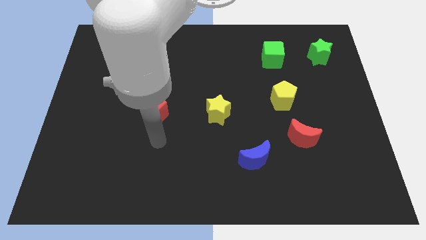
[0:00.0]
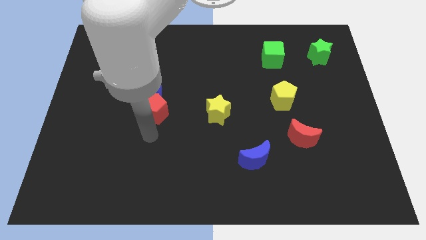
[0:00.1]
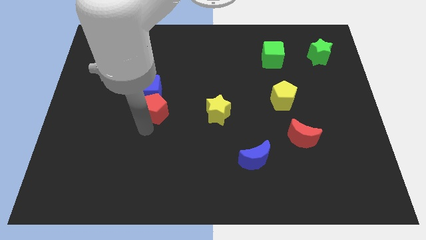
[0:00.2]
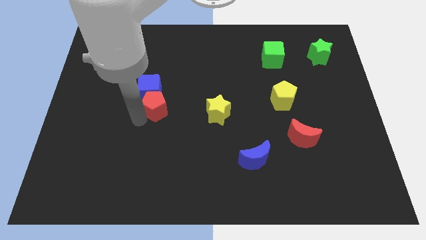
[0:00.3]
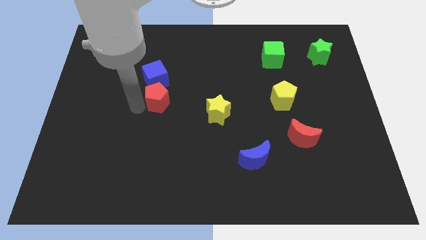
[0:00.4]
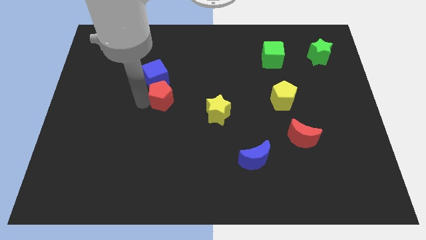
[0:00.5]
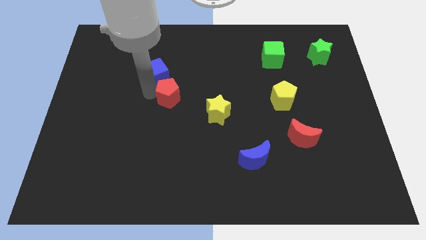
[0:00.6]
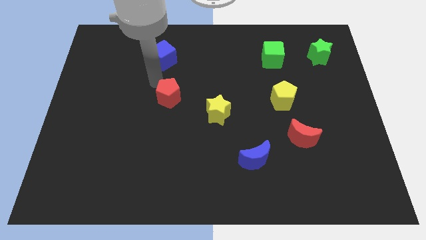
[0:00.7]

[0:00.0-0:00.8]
separate the red pentagon from the blue cube

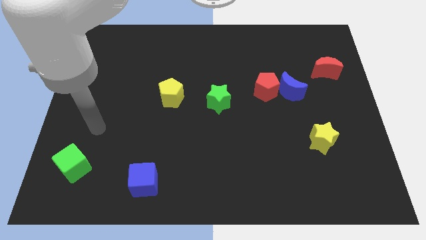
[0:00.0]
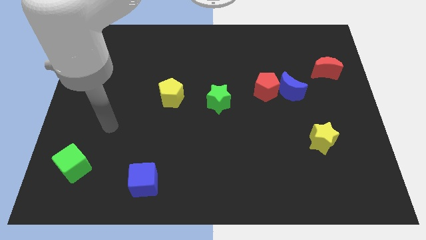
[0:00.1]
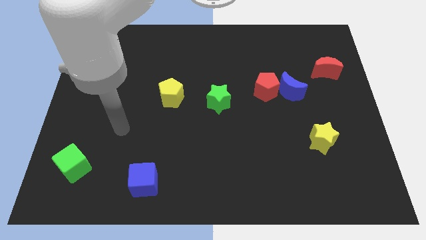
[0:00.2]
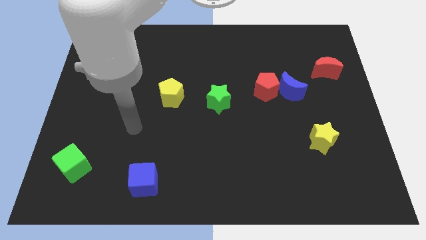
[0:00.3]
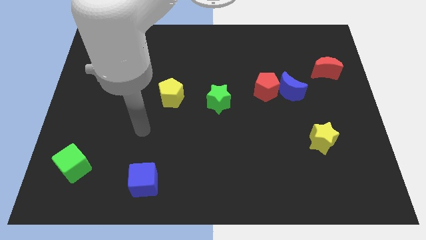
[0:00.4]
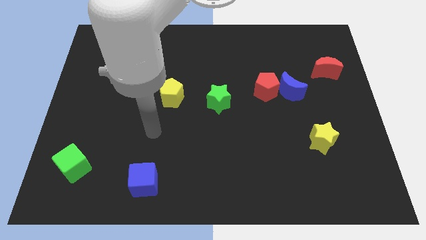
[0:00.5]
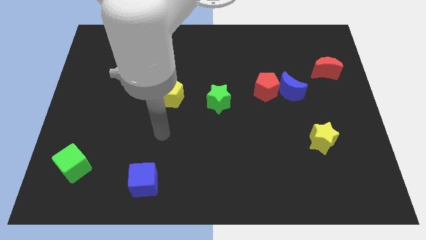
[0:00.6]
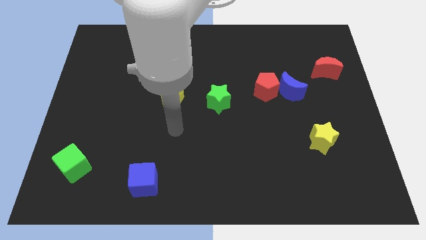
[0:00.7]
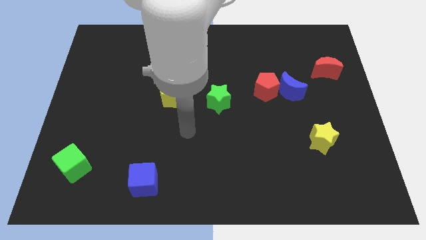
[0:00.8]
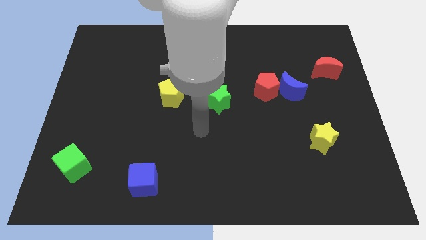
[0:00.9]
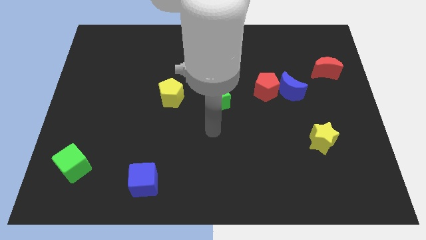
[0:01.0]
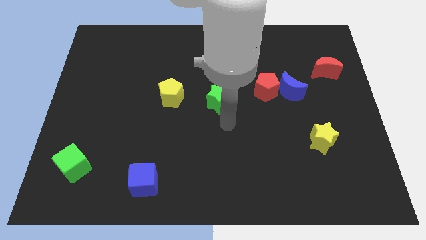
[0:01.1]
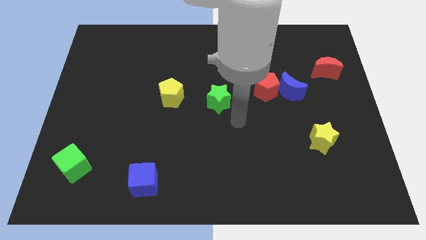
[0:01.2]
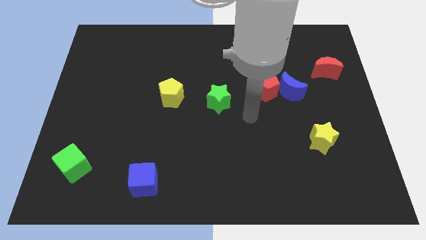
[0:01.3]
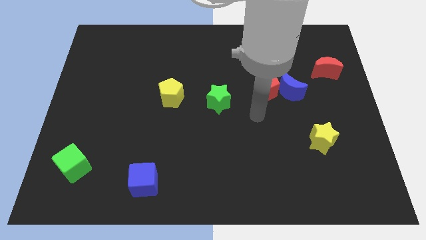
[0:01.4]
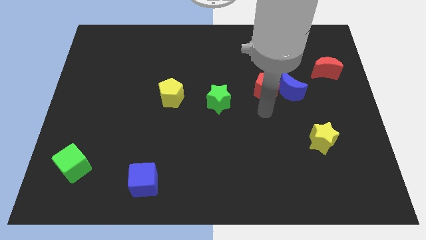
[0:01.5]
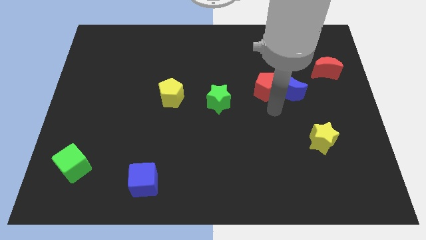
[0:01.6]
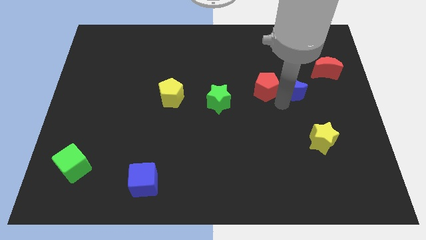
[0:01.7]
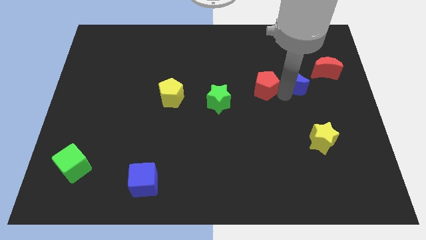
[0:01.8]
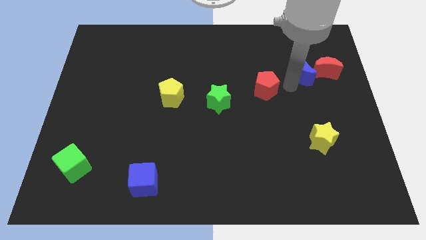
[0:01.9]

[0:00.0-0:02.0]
pull the red pentagon apart from the blue moon

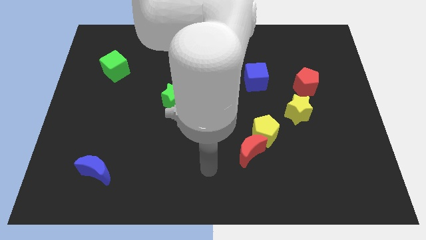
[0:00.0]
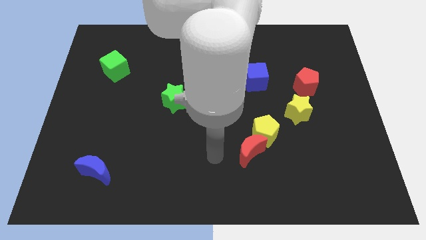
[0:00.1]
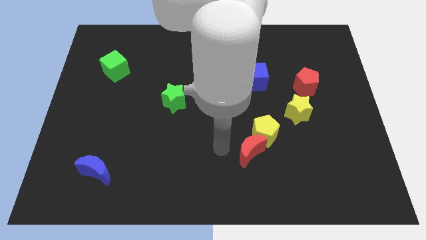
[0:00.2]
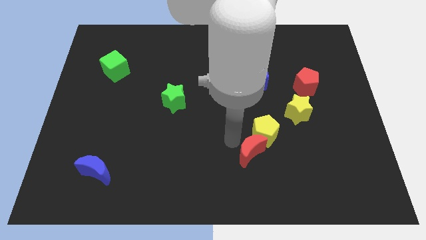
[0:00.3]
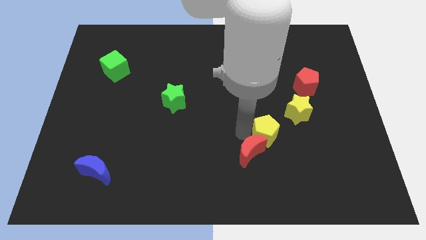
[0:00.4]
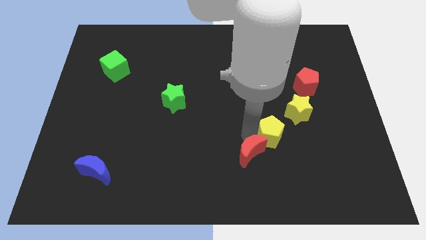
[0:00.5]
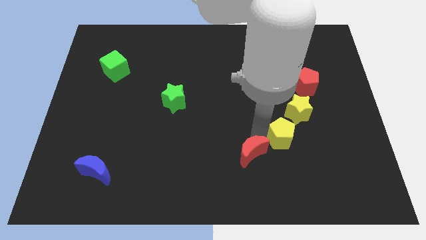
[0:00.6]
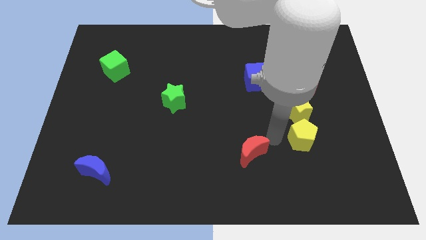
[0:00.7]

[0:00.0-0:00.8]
separate the red moon from the yellow pentagon

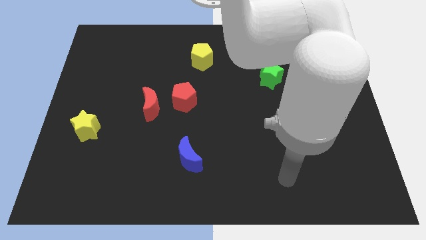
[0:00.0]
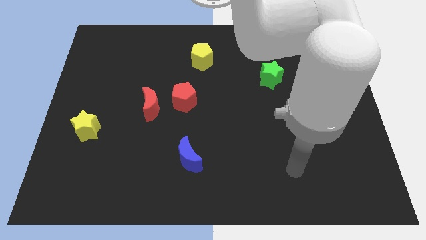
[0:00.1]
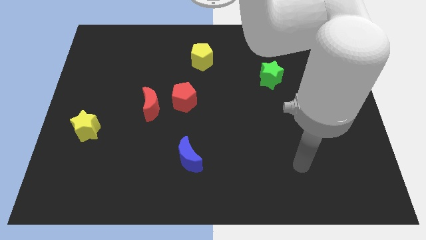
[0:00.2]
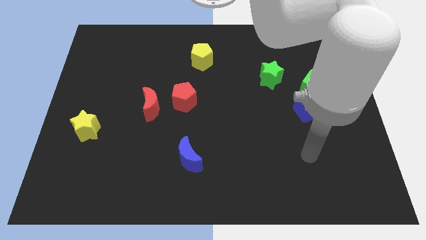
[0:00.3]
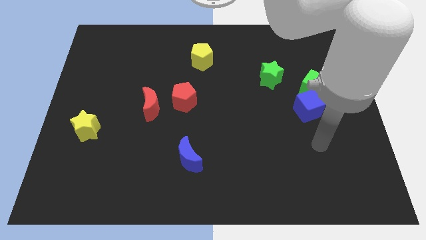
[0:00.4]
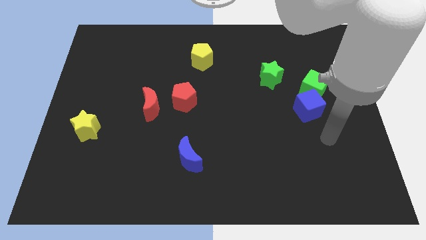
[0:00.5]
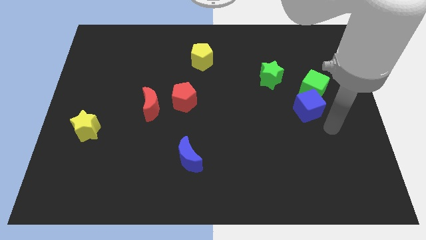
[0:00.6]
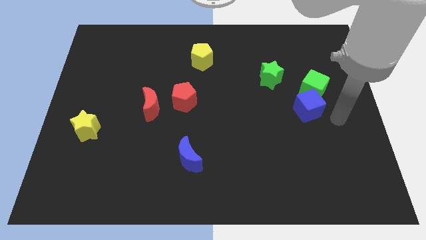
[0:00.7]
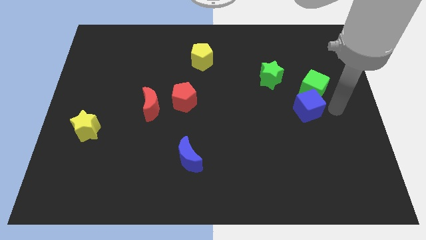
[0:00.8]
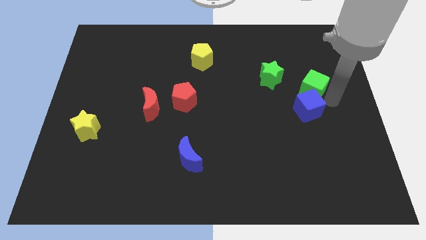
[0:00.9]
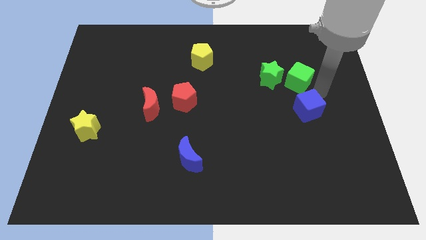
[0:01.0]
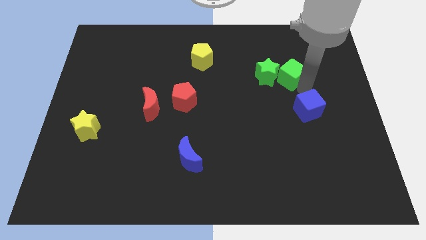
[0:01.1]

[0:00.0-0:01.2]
move the blue cube away from the green cube

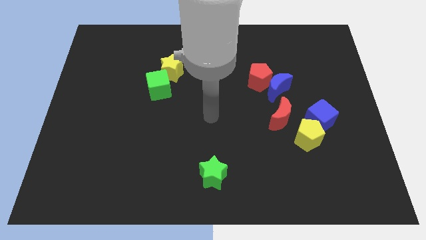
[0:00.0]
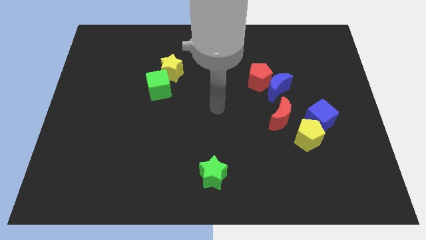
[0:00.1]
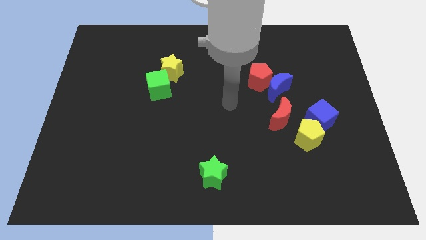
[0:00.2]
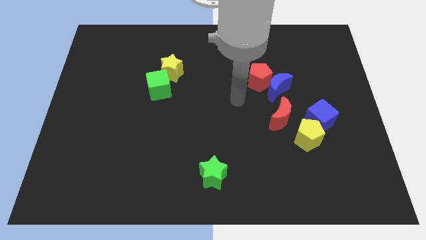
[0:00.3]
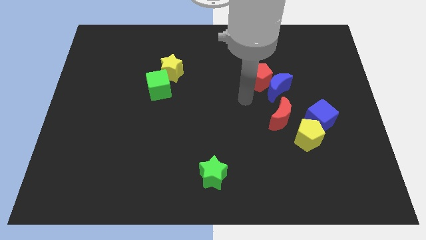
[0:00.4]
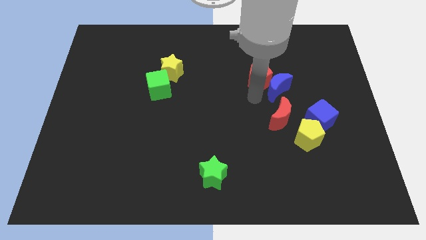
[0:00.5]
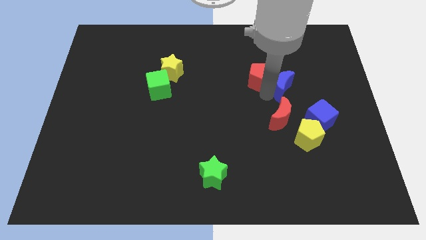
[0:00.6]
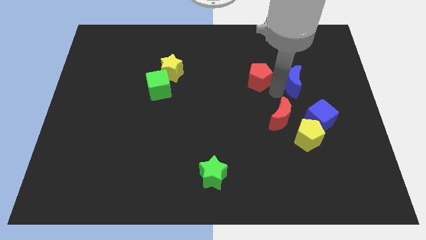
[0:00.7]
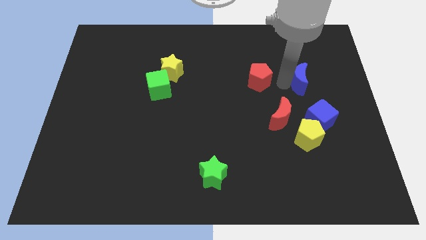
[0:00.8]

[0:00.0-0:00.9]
move the red pentagon away from the blue moon

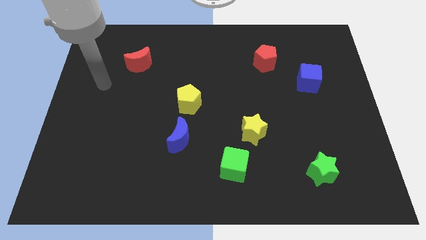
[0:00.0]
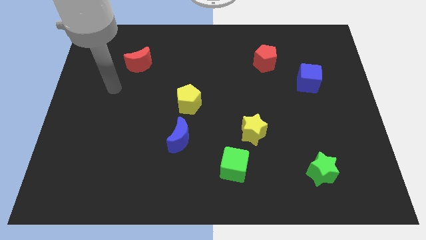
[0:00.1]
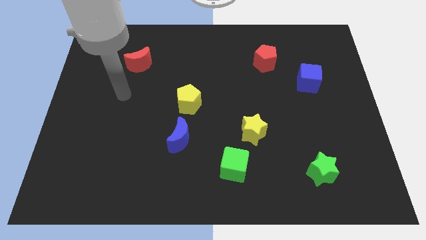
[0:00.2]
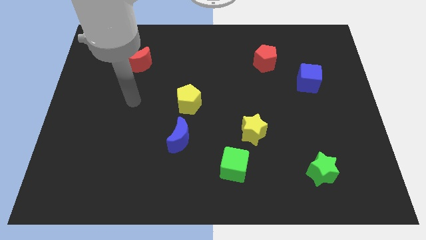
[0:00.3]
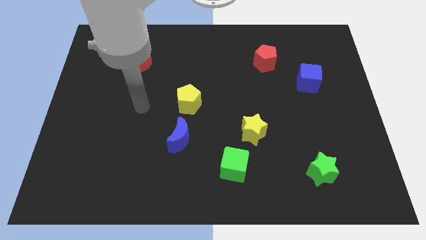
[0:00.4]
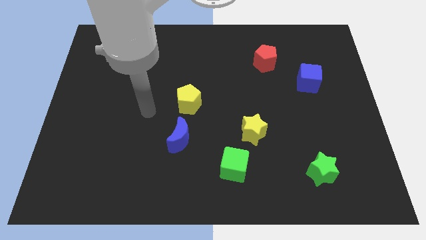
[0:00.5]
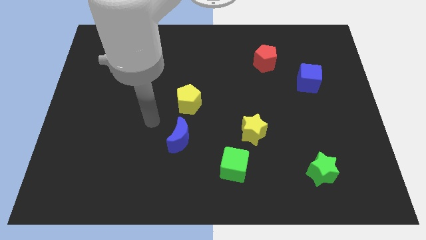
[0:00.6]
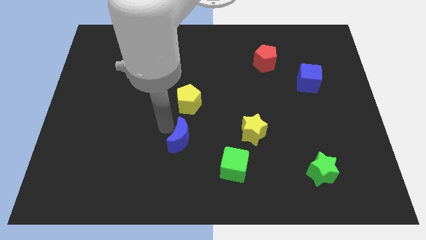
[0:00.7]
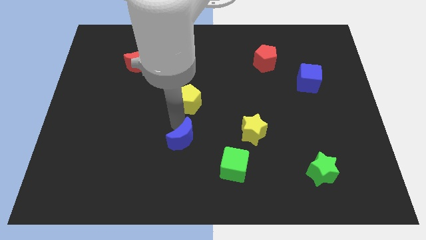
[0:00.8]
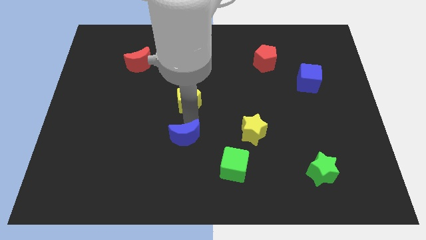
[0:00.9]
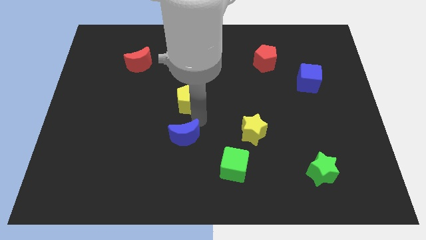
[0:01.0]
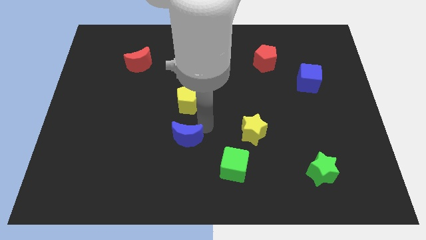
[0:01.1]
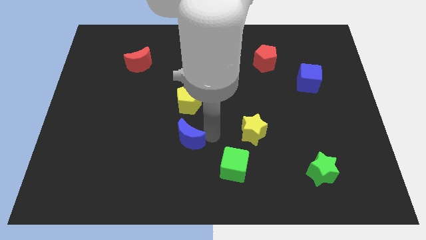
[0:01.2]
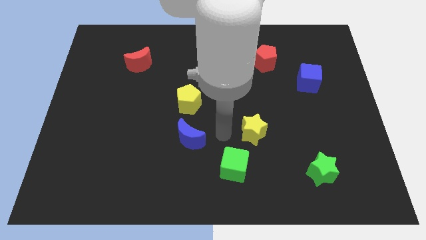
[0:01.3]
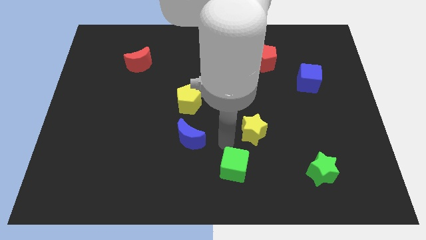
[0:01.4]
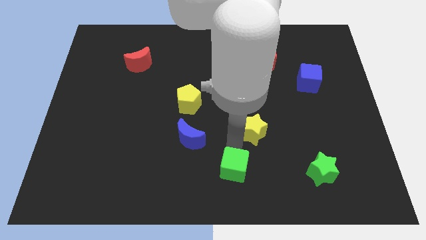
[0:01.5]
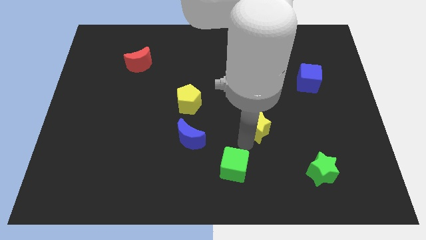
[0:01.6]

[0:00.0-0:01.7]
move the green cube away from the yellow star

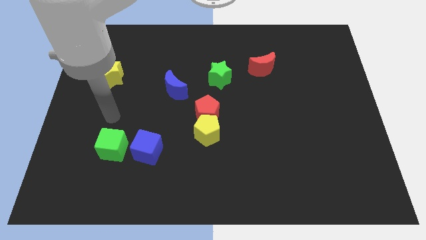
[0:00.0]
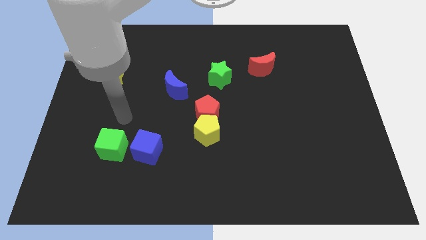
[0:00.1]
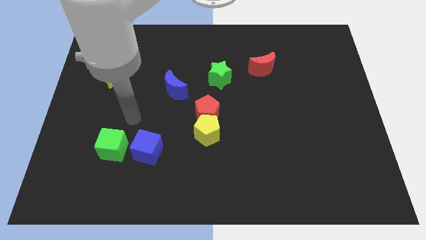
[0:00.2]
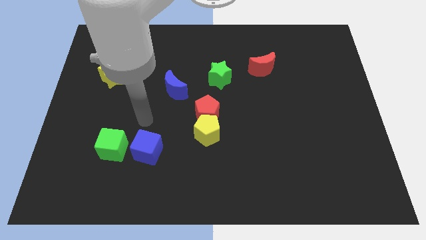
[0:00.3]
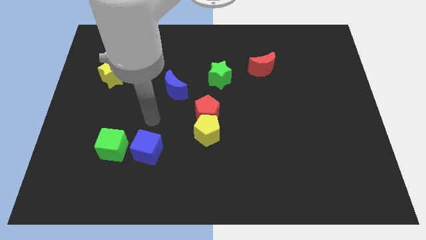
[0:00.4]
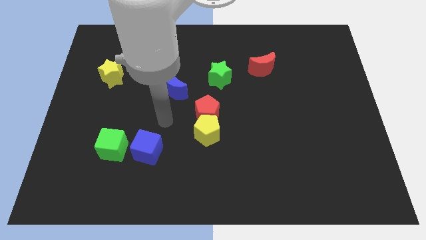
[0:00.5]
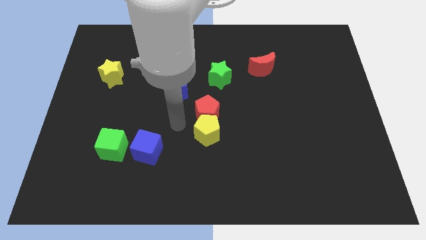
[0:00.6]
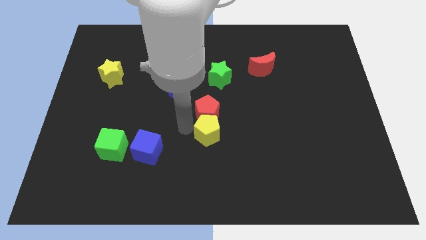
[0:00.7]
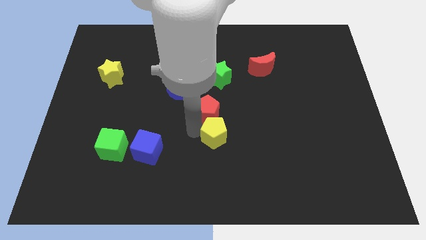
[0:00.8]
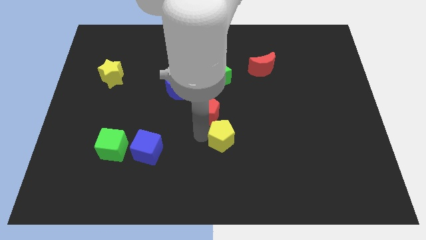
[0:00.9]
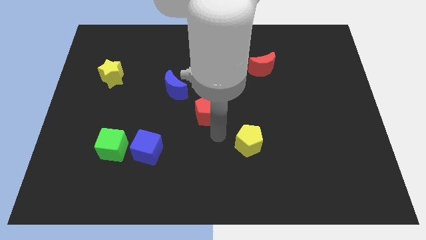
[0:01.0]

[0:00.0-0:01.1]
pull the red pentagon apart from the yellow pentagon

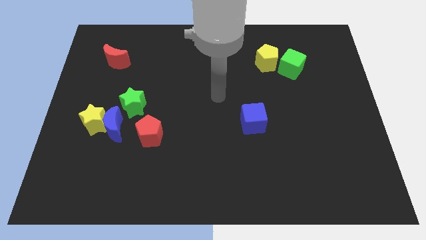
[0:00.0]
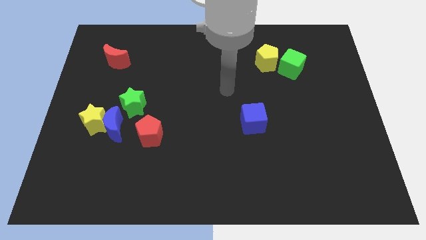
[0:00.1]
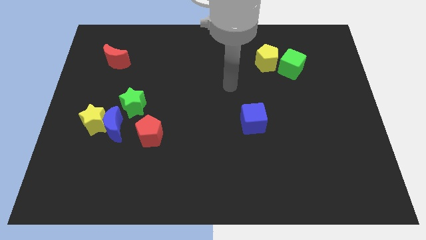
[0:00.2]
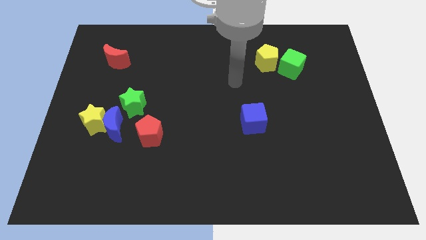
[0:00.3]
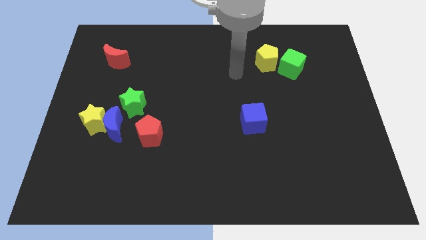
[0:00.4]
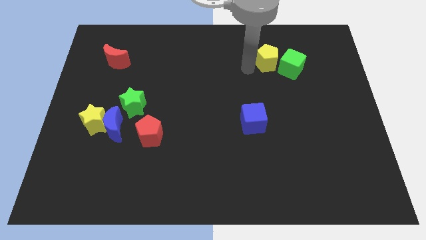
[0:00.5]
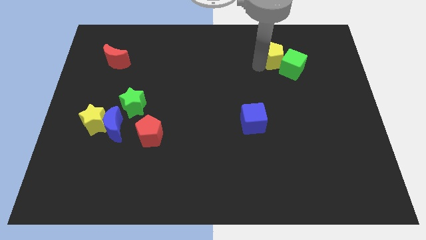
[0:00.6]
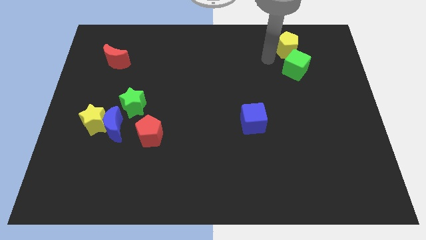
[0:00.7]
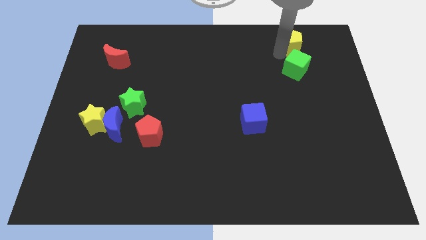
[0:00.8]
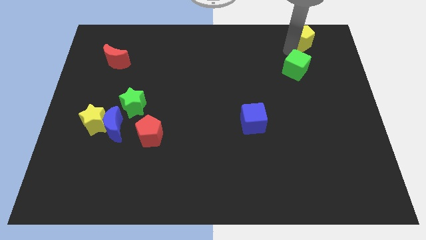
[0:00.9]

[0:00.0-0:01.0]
move the green cube away from the yellow pentagon

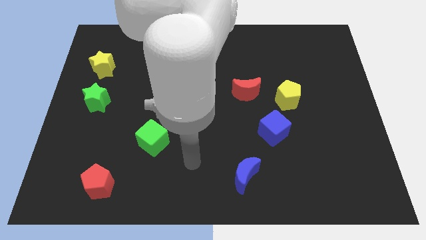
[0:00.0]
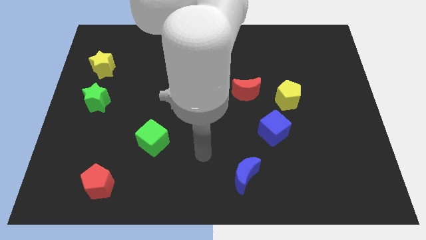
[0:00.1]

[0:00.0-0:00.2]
move the red moon away from the yellow pentagon
